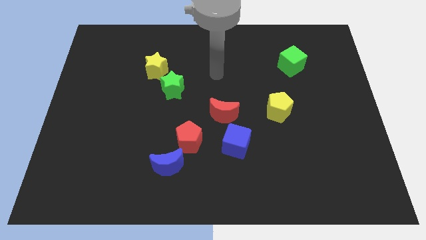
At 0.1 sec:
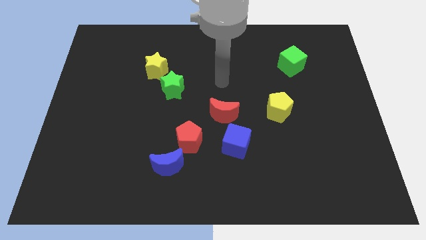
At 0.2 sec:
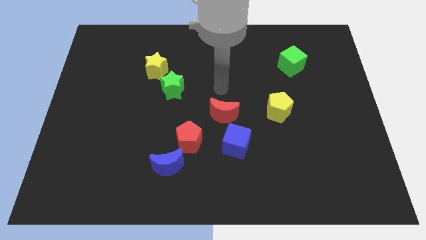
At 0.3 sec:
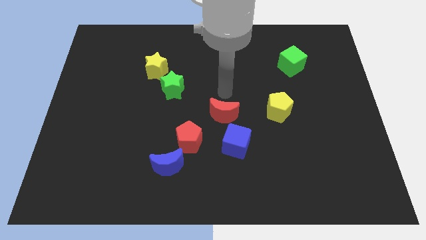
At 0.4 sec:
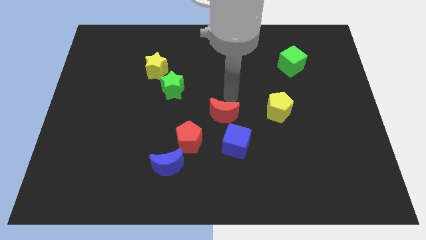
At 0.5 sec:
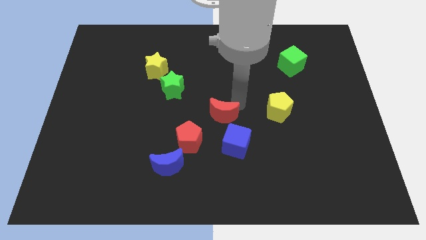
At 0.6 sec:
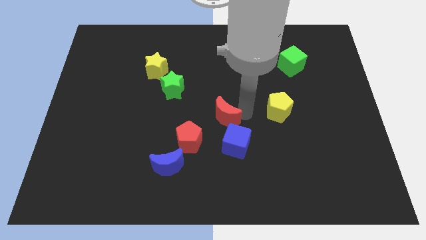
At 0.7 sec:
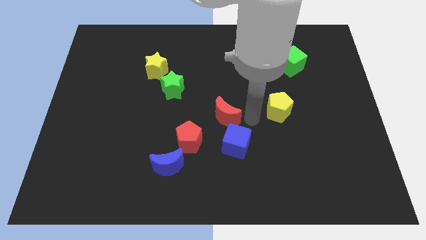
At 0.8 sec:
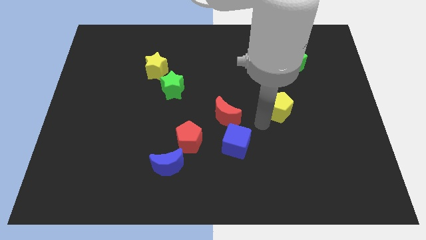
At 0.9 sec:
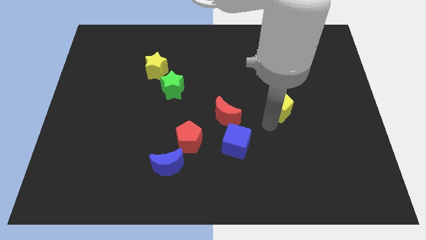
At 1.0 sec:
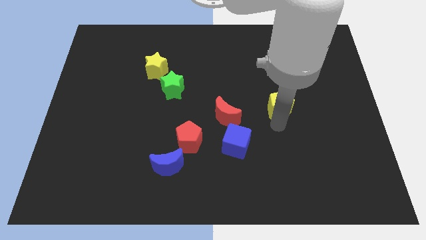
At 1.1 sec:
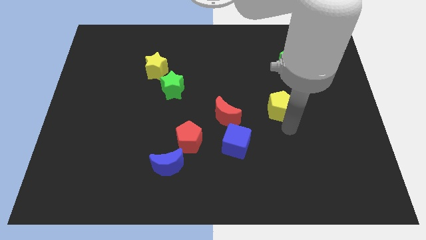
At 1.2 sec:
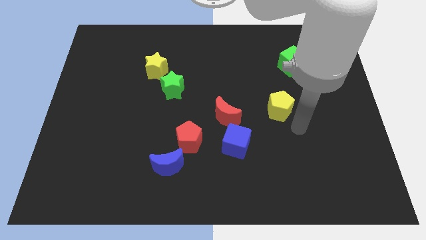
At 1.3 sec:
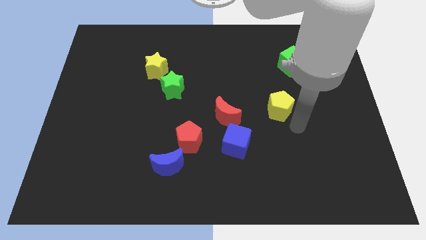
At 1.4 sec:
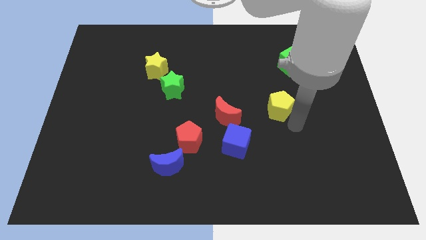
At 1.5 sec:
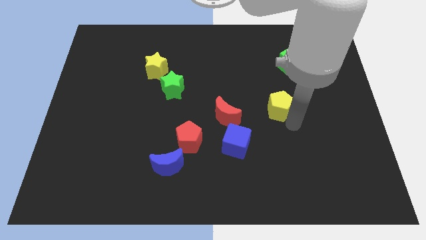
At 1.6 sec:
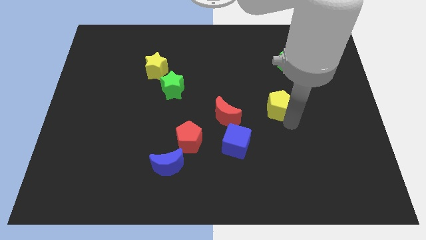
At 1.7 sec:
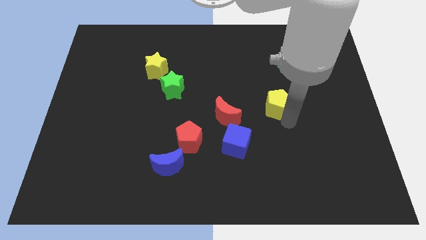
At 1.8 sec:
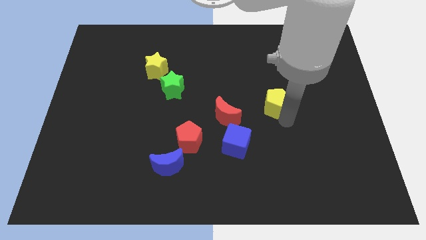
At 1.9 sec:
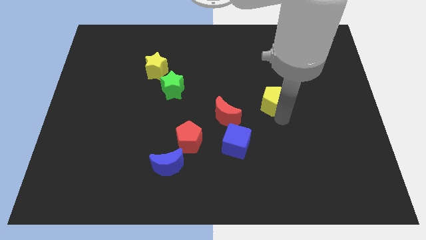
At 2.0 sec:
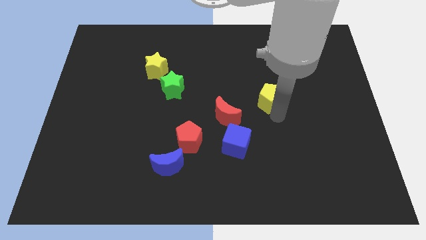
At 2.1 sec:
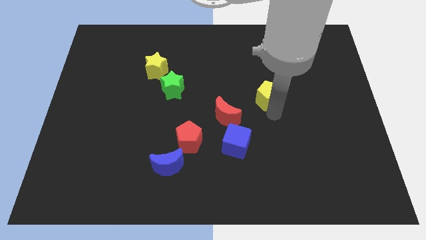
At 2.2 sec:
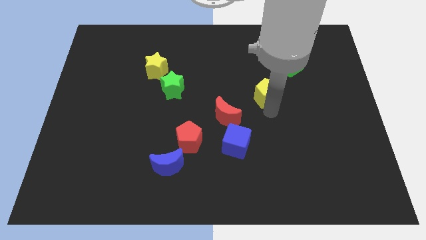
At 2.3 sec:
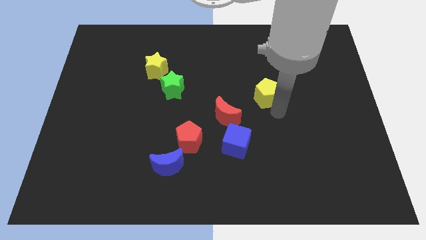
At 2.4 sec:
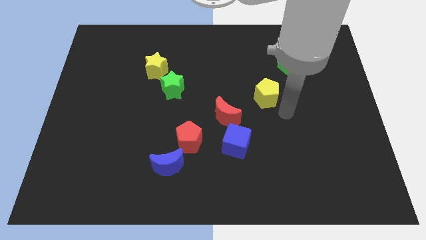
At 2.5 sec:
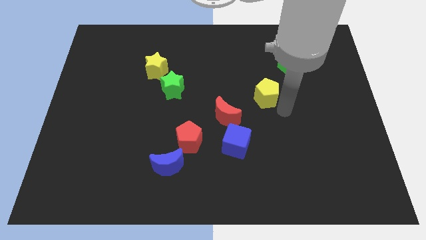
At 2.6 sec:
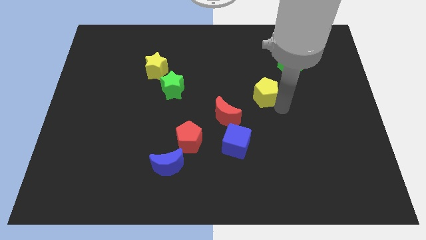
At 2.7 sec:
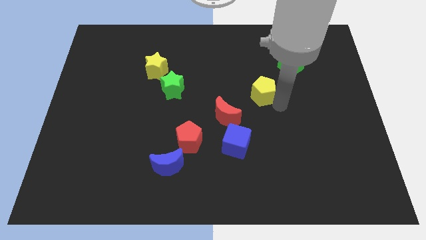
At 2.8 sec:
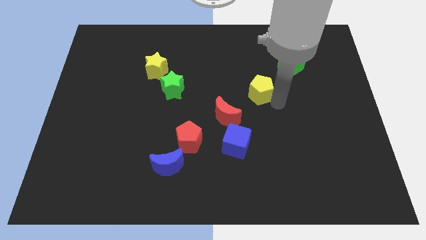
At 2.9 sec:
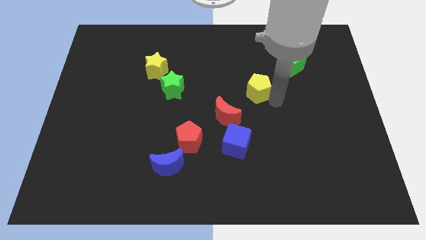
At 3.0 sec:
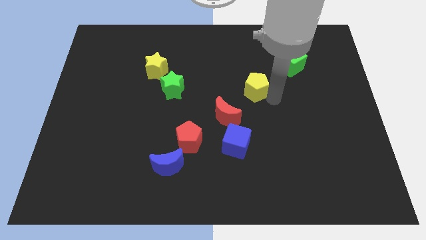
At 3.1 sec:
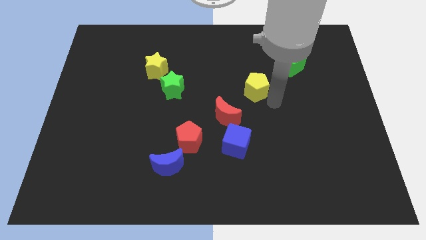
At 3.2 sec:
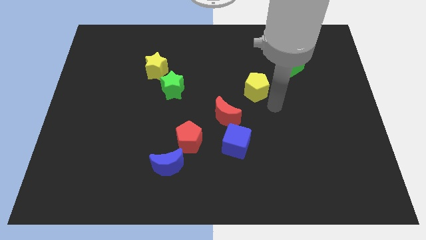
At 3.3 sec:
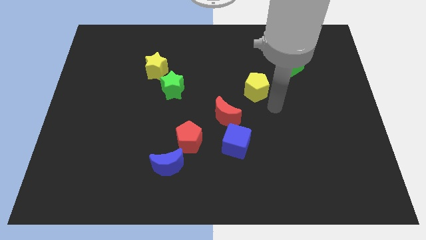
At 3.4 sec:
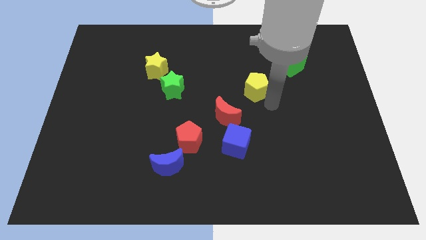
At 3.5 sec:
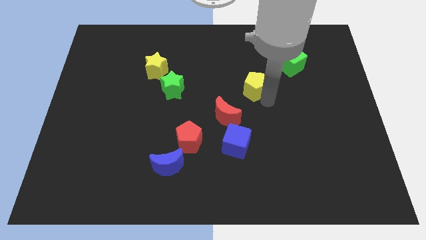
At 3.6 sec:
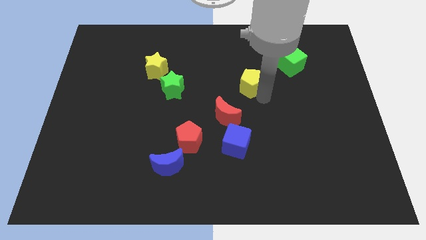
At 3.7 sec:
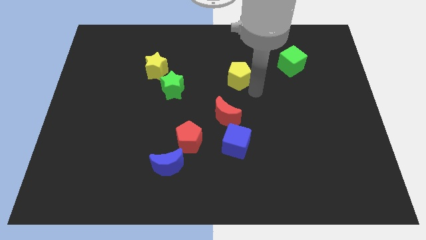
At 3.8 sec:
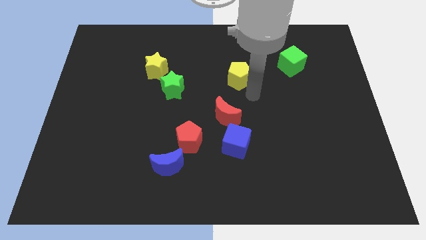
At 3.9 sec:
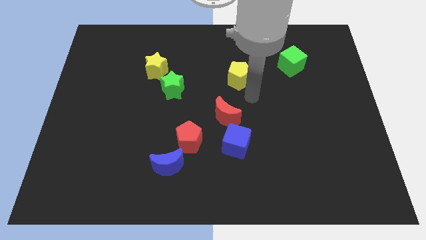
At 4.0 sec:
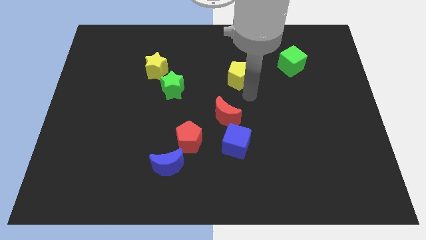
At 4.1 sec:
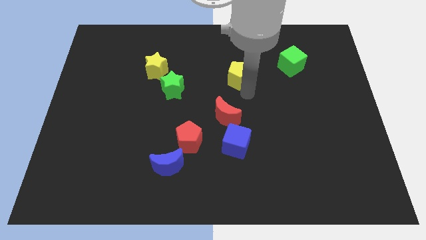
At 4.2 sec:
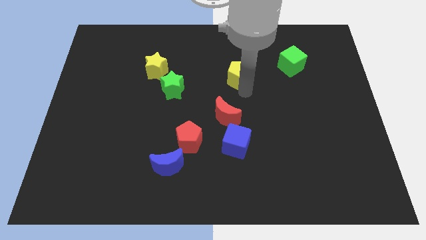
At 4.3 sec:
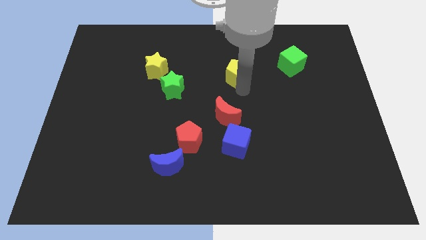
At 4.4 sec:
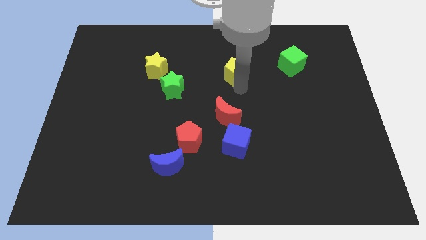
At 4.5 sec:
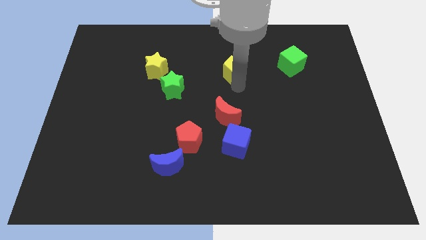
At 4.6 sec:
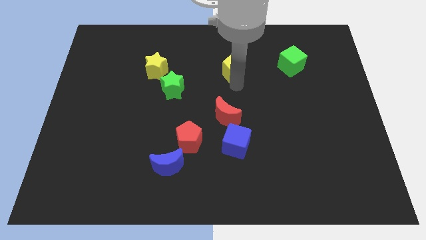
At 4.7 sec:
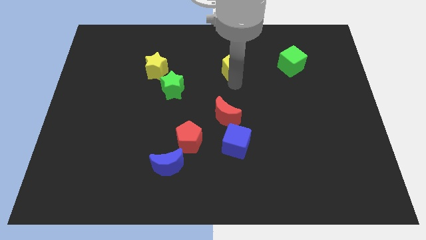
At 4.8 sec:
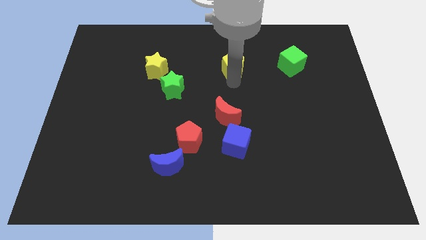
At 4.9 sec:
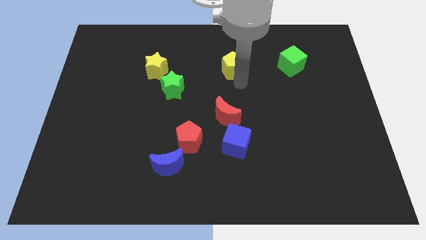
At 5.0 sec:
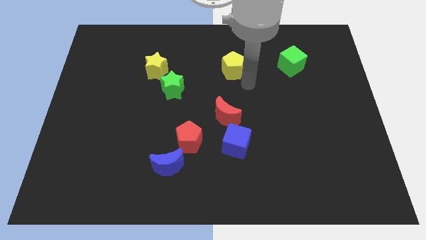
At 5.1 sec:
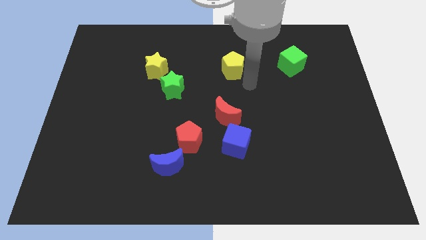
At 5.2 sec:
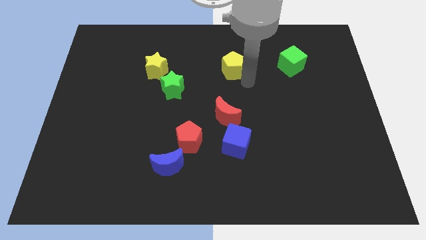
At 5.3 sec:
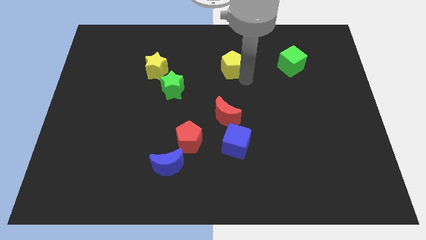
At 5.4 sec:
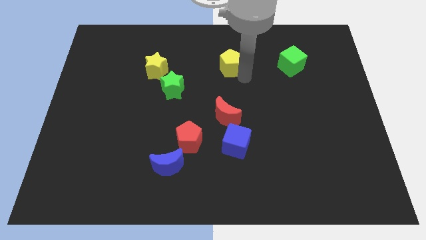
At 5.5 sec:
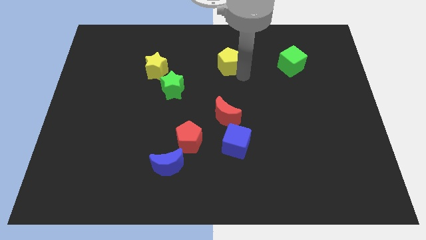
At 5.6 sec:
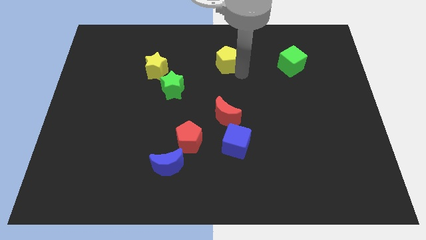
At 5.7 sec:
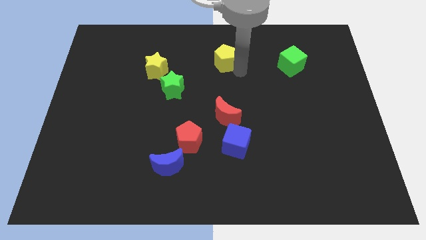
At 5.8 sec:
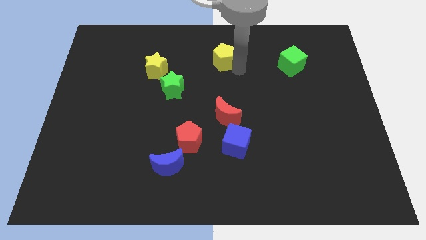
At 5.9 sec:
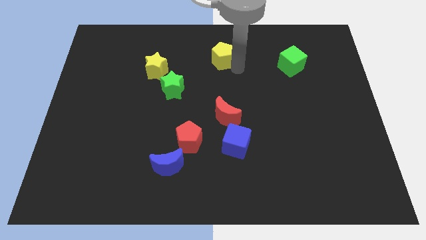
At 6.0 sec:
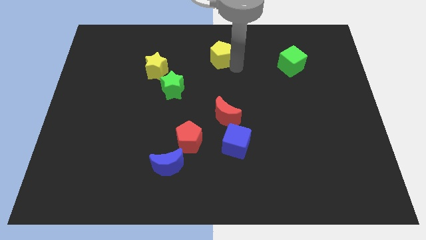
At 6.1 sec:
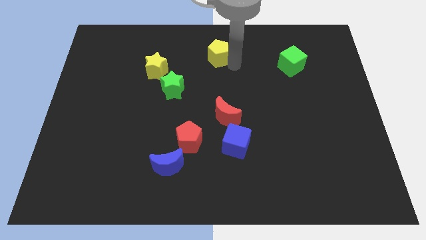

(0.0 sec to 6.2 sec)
move the yellow pentagon to the top
